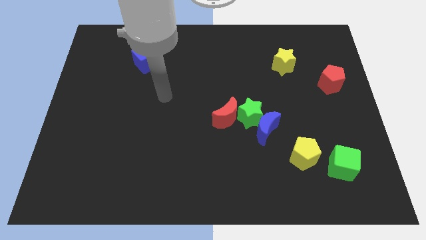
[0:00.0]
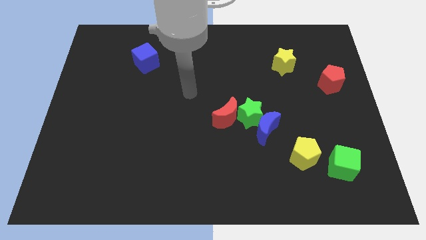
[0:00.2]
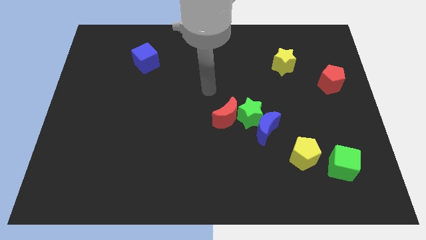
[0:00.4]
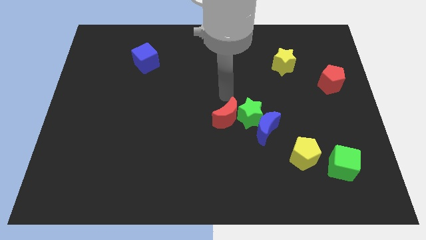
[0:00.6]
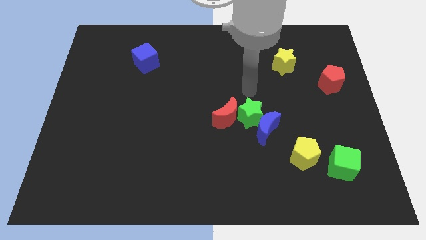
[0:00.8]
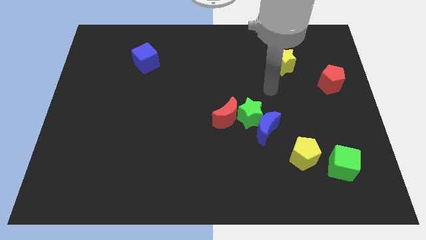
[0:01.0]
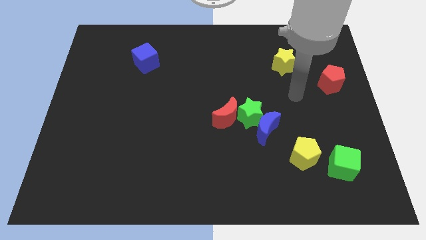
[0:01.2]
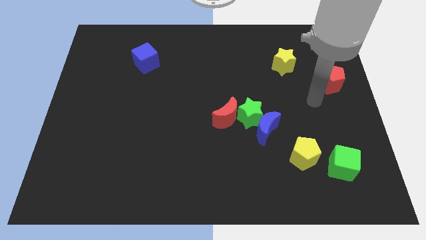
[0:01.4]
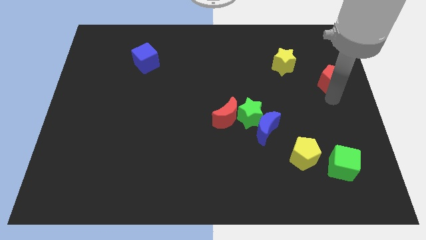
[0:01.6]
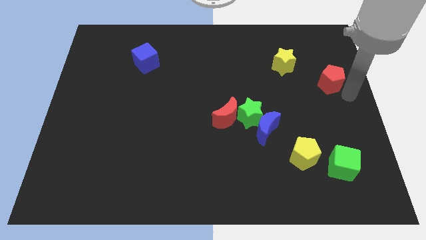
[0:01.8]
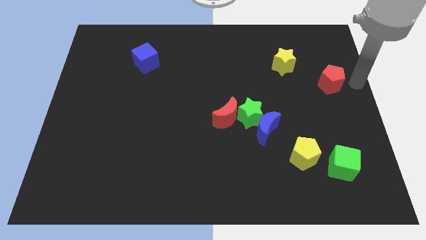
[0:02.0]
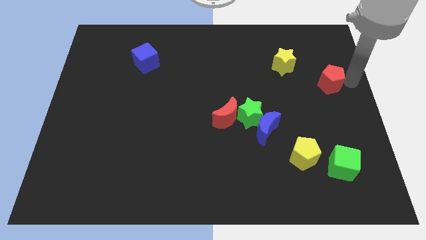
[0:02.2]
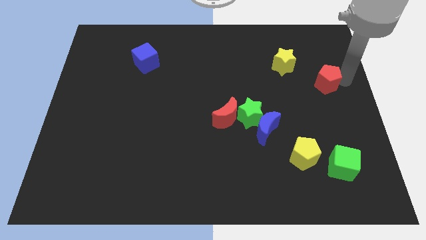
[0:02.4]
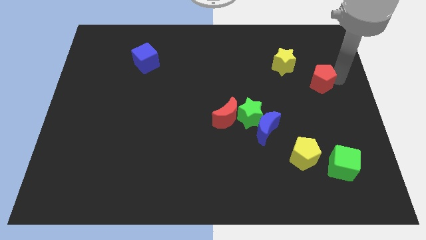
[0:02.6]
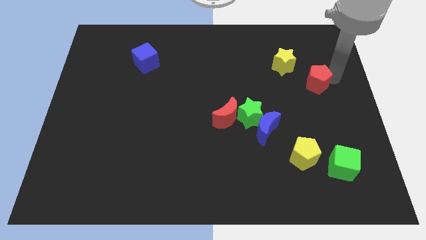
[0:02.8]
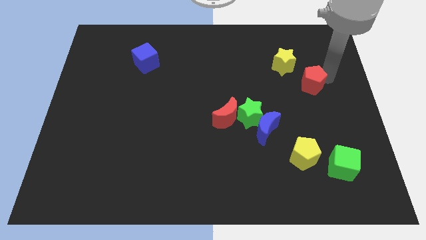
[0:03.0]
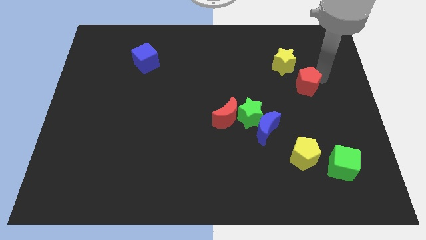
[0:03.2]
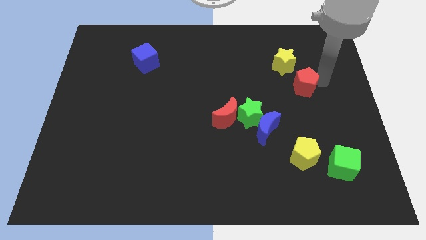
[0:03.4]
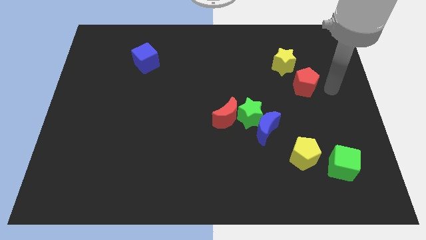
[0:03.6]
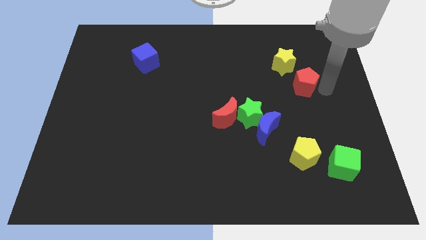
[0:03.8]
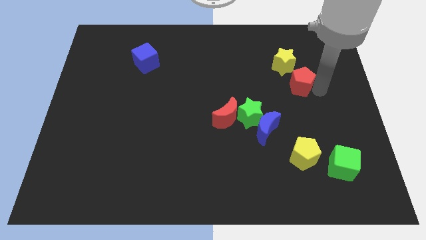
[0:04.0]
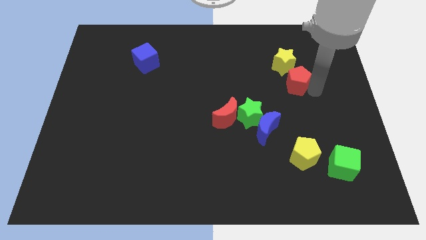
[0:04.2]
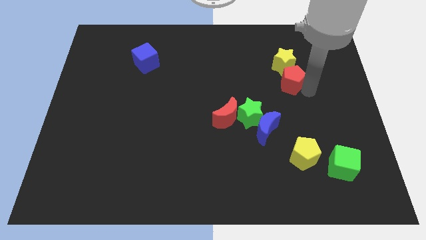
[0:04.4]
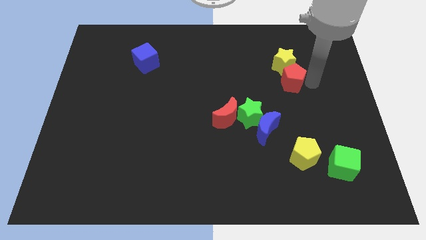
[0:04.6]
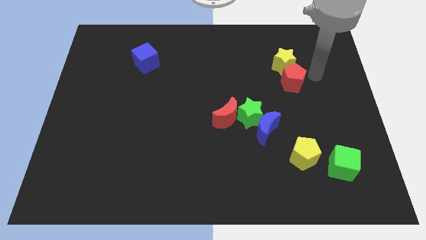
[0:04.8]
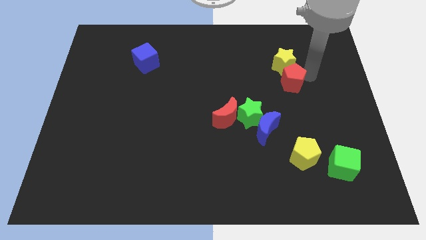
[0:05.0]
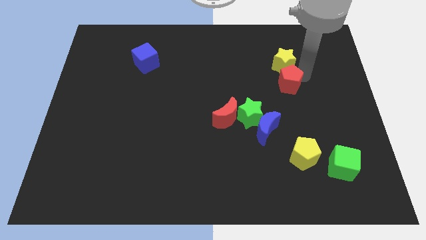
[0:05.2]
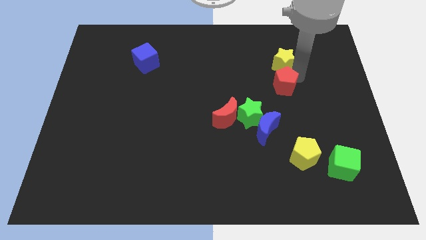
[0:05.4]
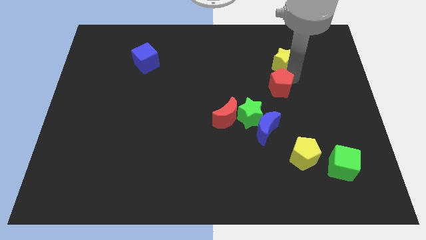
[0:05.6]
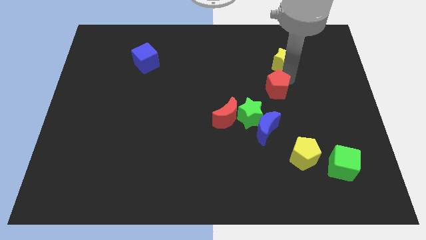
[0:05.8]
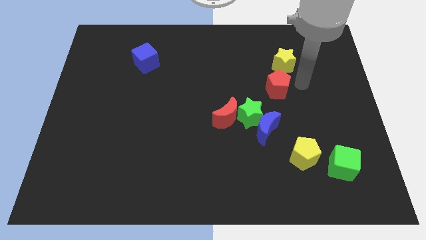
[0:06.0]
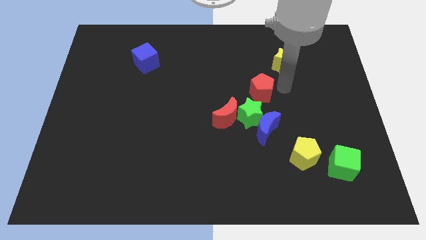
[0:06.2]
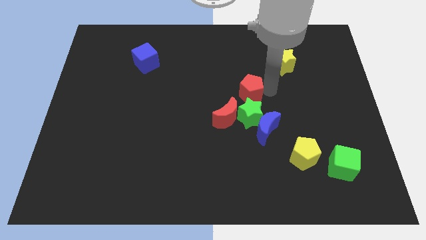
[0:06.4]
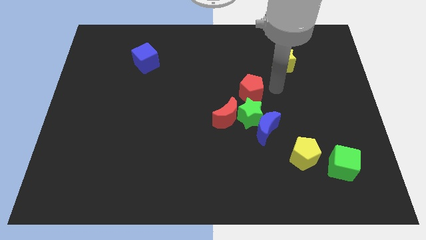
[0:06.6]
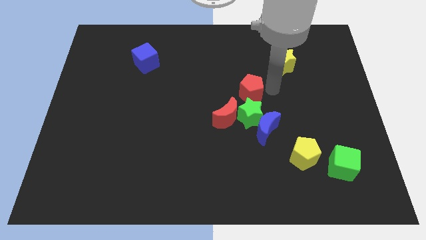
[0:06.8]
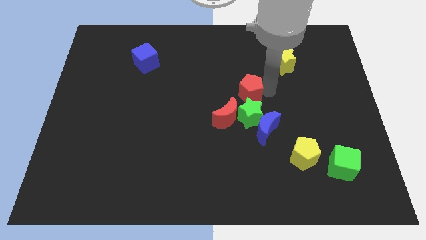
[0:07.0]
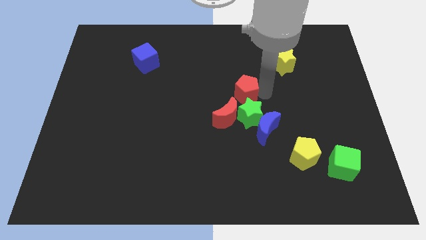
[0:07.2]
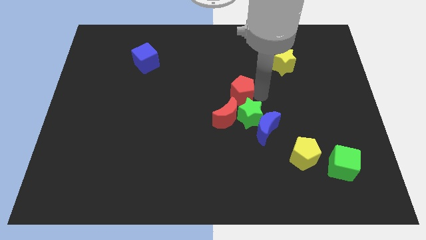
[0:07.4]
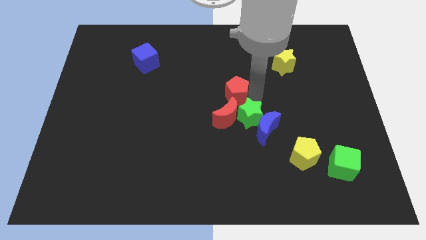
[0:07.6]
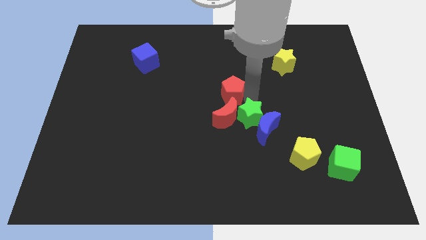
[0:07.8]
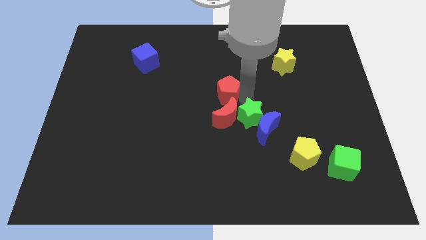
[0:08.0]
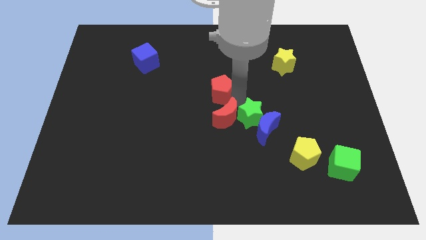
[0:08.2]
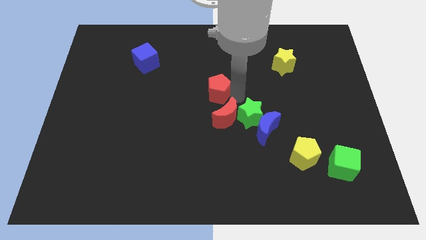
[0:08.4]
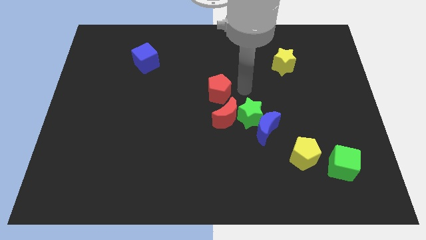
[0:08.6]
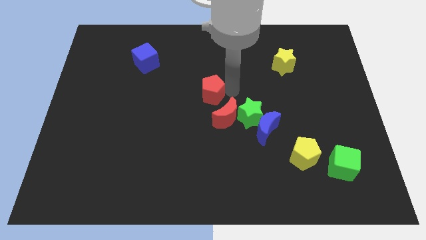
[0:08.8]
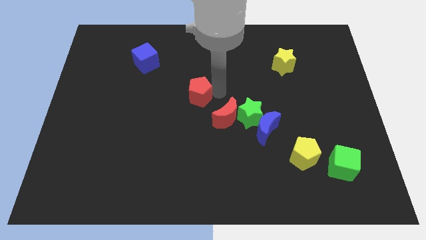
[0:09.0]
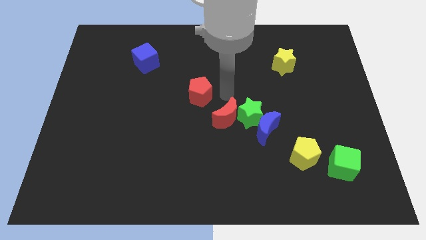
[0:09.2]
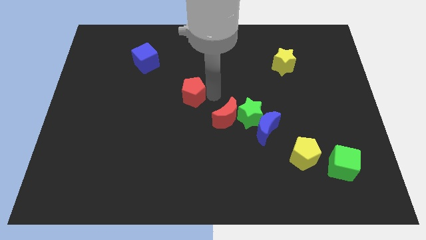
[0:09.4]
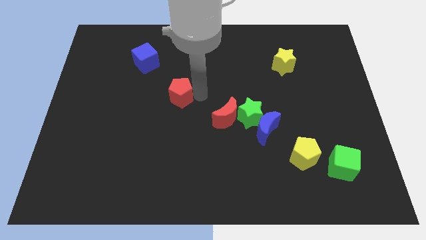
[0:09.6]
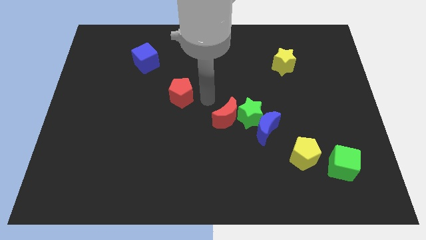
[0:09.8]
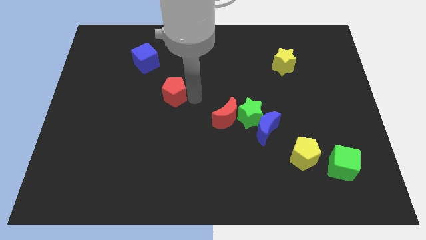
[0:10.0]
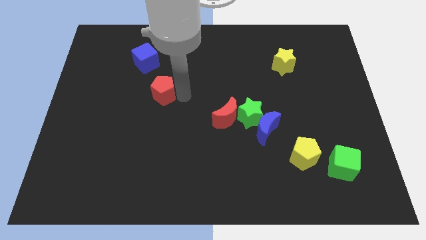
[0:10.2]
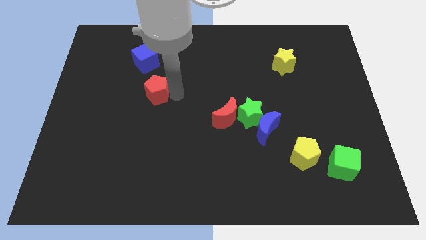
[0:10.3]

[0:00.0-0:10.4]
slide the red pentagon to the bottom of the blue cube

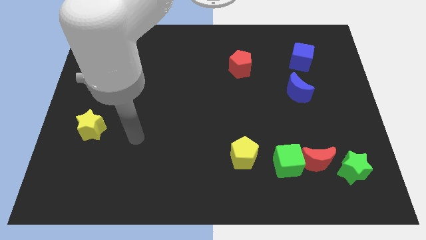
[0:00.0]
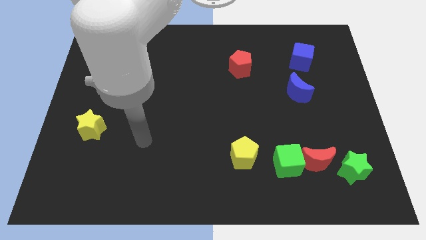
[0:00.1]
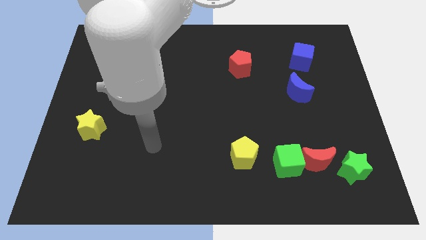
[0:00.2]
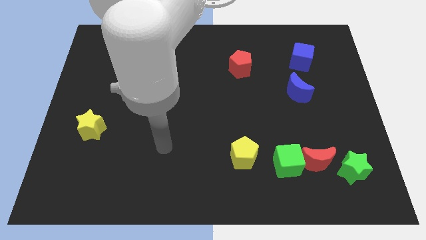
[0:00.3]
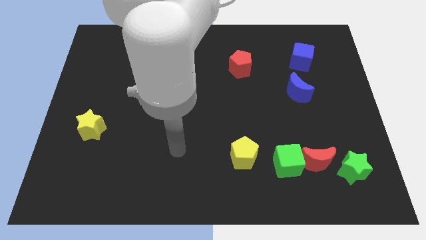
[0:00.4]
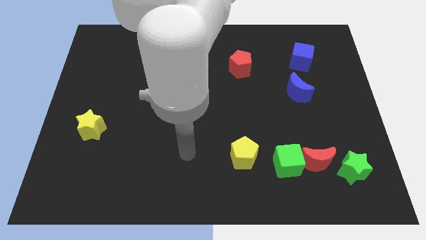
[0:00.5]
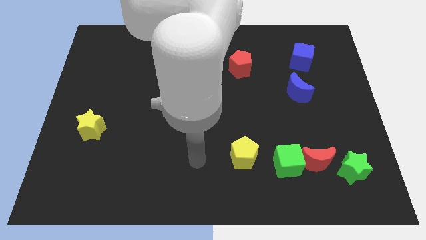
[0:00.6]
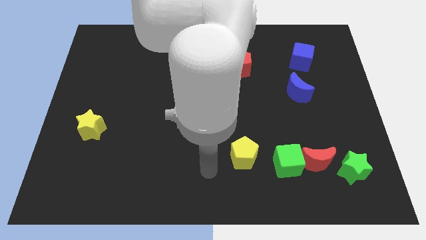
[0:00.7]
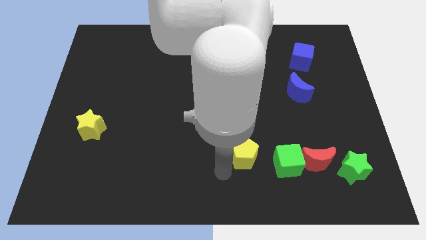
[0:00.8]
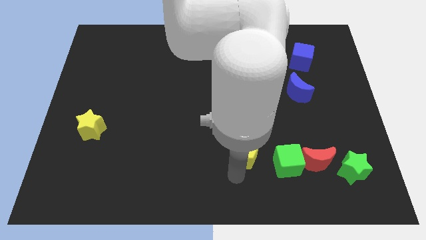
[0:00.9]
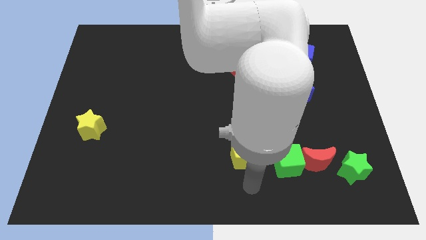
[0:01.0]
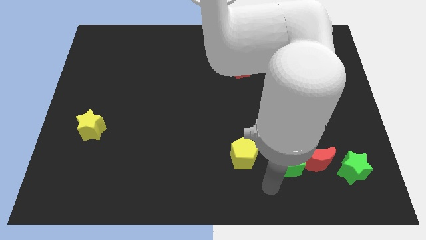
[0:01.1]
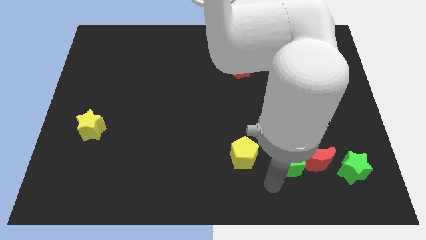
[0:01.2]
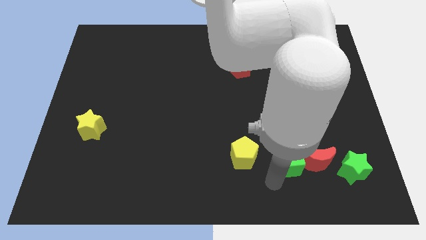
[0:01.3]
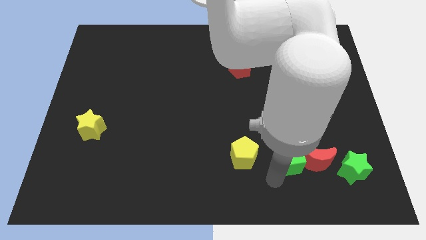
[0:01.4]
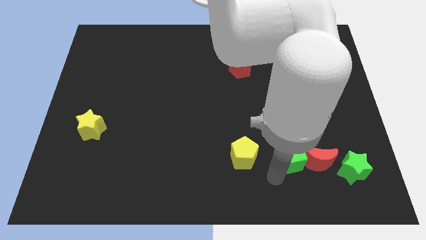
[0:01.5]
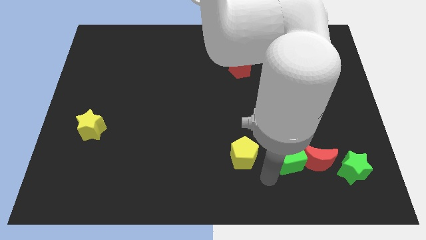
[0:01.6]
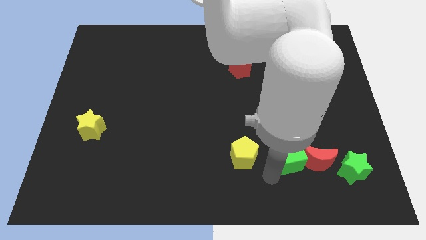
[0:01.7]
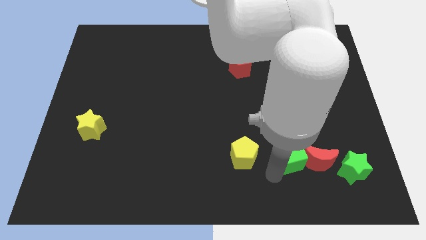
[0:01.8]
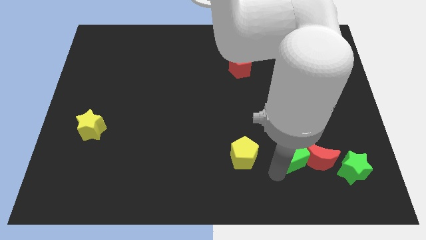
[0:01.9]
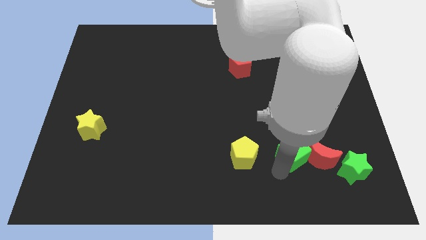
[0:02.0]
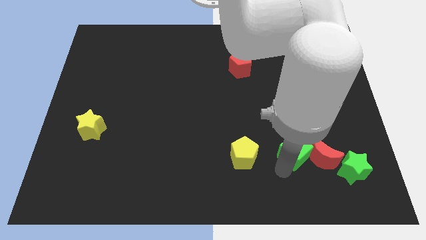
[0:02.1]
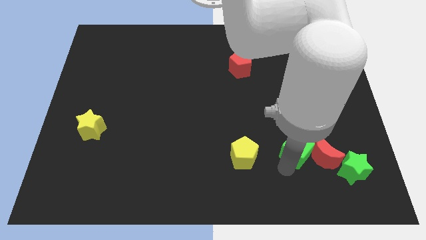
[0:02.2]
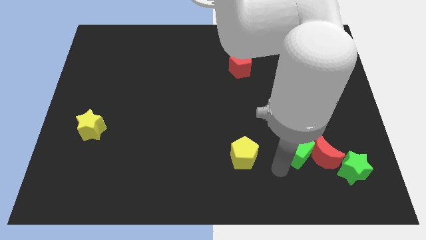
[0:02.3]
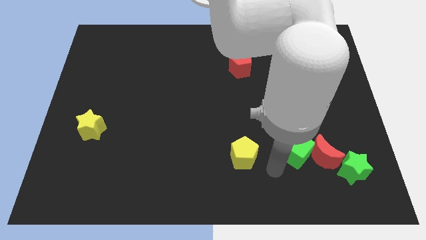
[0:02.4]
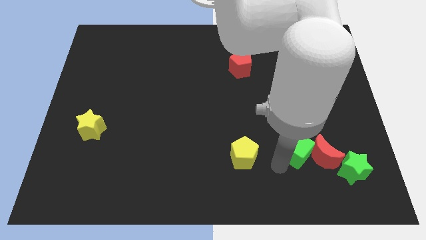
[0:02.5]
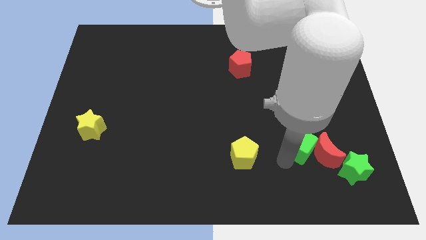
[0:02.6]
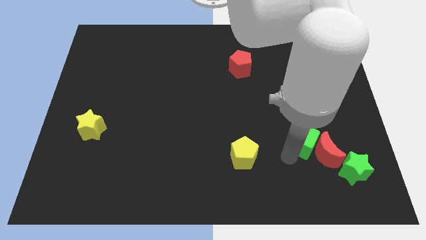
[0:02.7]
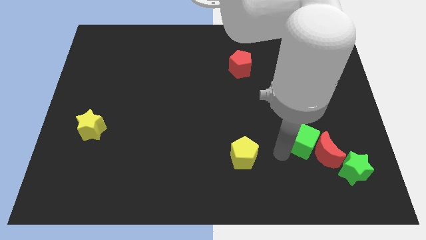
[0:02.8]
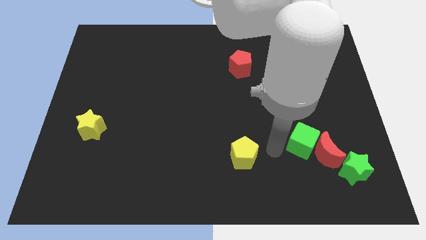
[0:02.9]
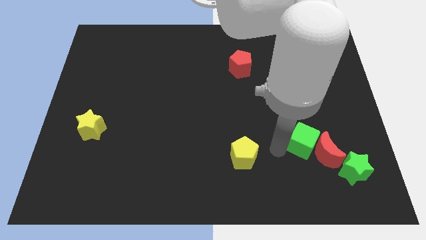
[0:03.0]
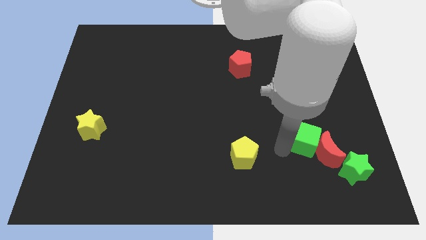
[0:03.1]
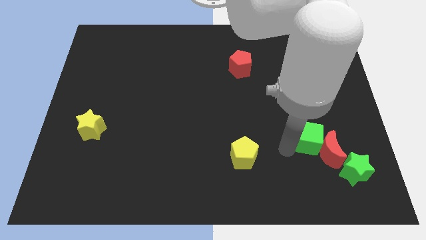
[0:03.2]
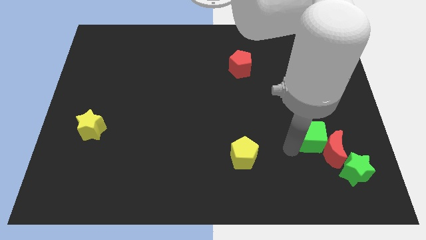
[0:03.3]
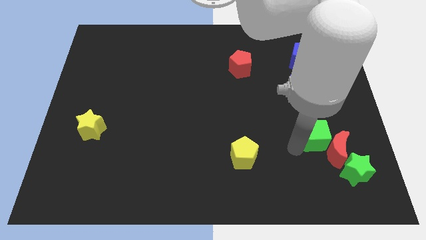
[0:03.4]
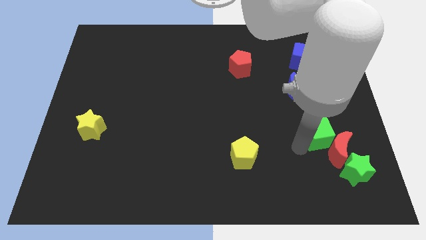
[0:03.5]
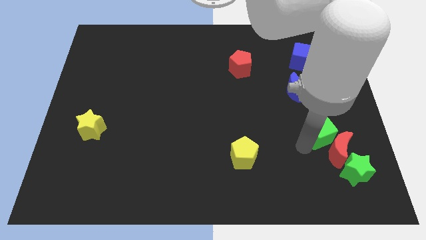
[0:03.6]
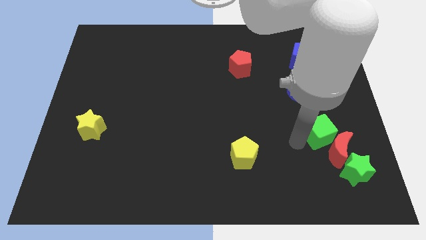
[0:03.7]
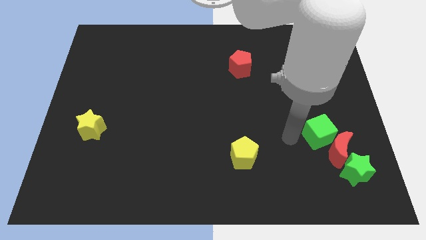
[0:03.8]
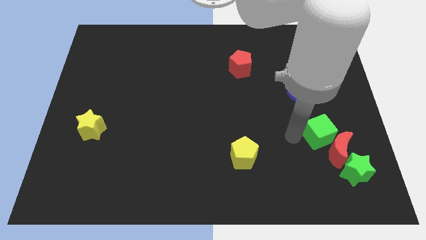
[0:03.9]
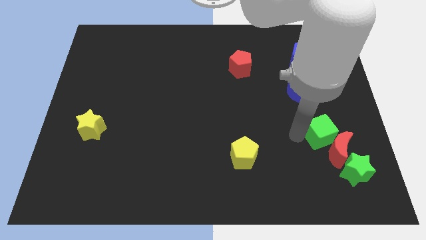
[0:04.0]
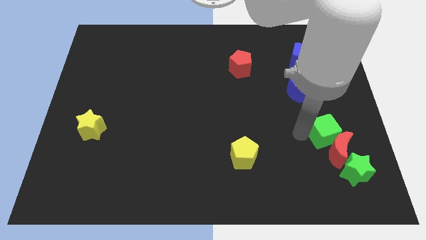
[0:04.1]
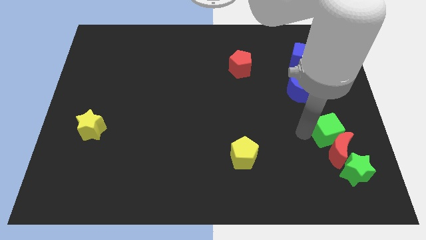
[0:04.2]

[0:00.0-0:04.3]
slide the green cube to the top right of the red moon
